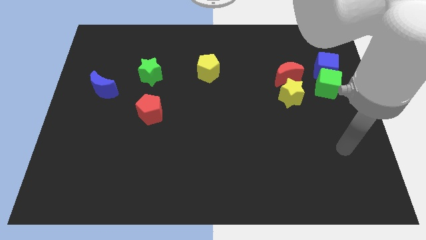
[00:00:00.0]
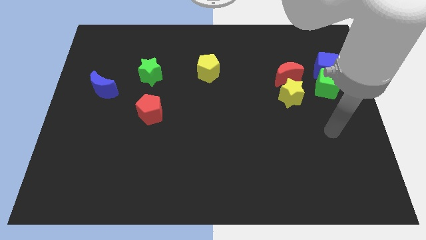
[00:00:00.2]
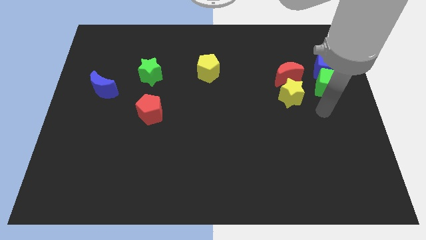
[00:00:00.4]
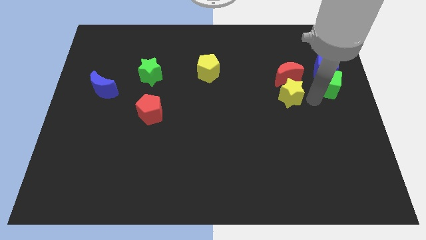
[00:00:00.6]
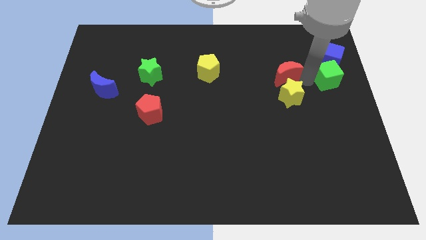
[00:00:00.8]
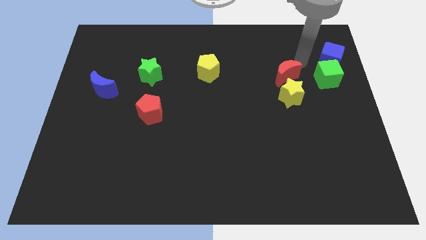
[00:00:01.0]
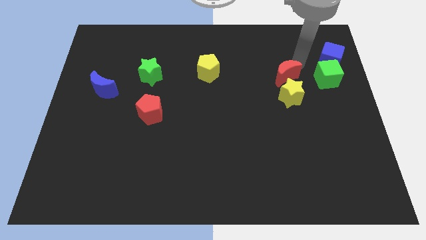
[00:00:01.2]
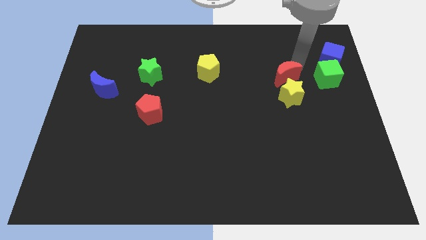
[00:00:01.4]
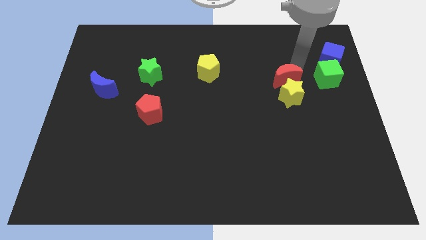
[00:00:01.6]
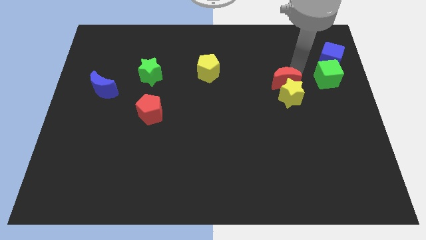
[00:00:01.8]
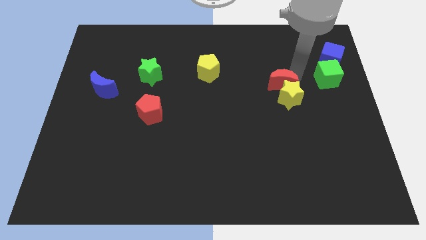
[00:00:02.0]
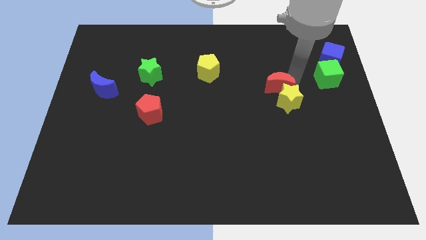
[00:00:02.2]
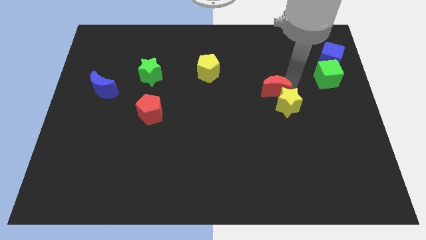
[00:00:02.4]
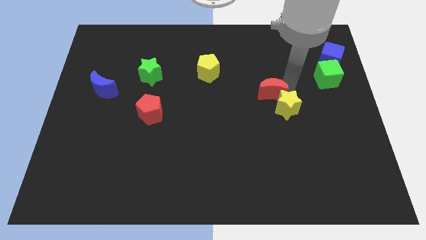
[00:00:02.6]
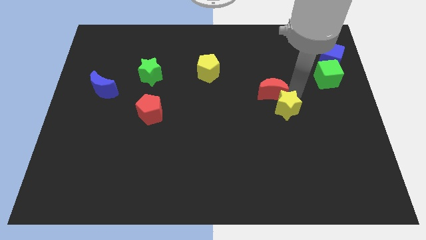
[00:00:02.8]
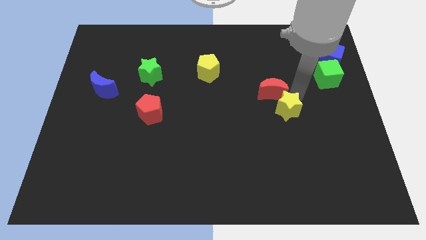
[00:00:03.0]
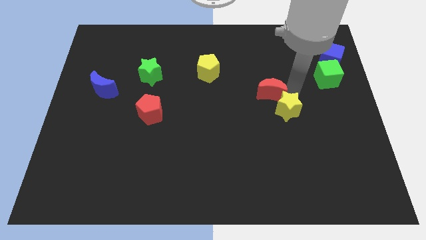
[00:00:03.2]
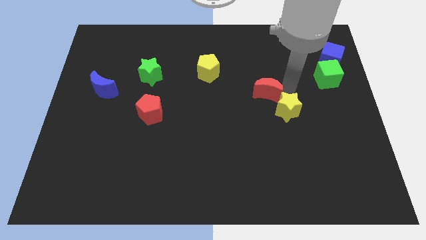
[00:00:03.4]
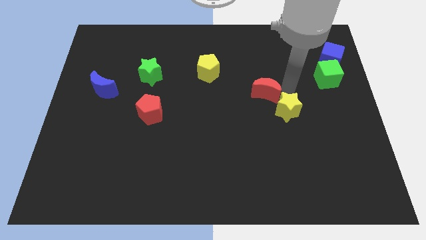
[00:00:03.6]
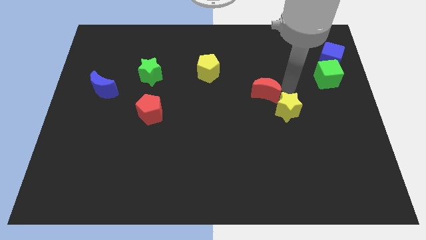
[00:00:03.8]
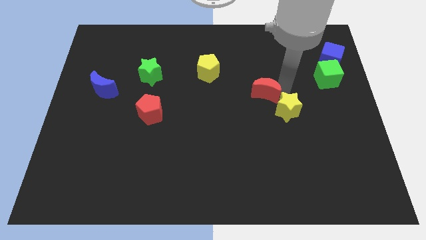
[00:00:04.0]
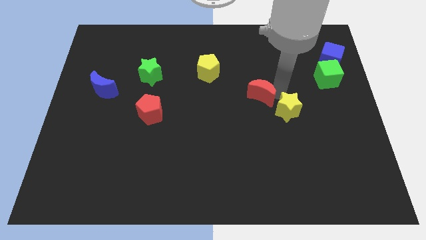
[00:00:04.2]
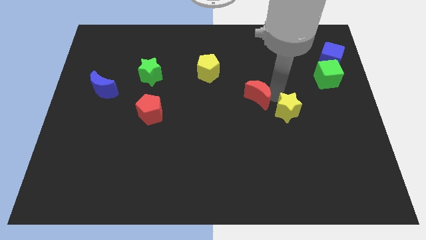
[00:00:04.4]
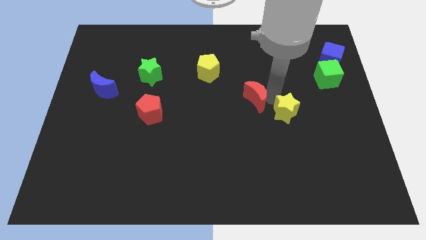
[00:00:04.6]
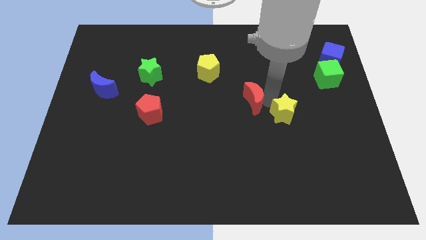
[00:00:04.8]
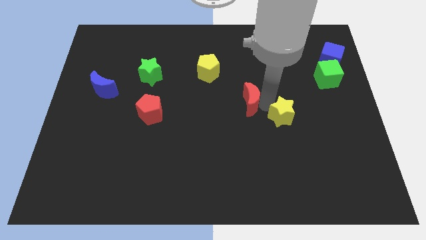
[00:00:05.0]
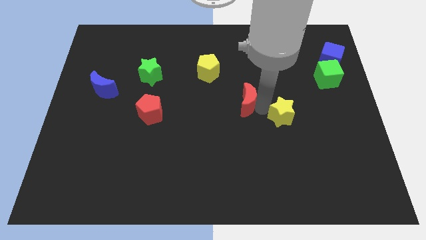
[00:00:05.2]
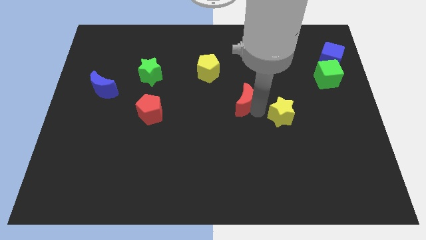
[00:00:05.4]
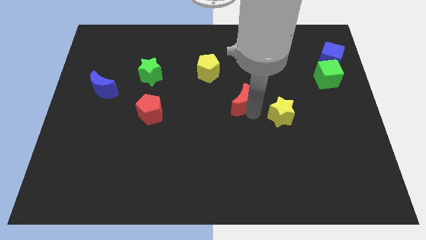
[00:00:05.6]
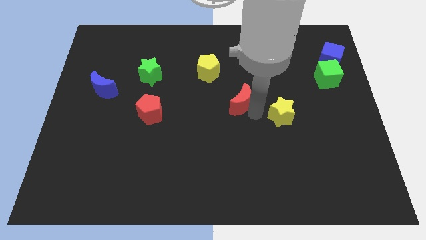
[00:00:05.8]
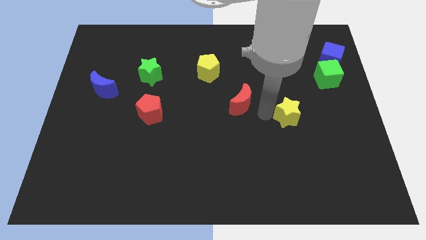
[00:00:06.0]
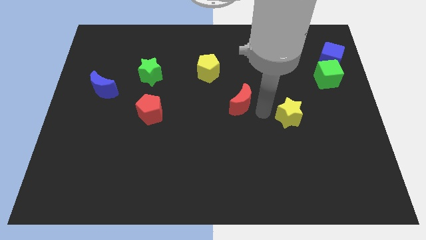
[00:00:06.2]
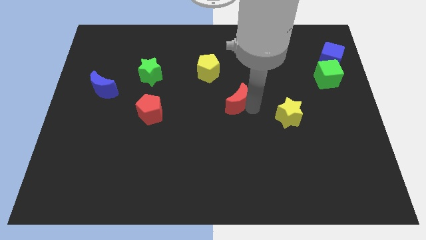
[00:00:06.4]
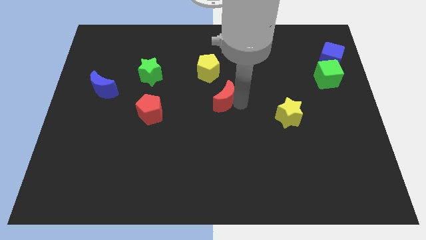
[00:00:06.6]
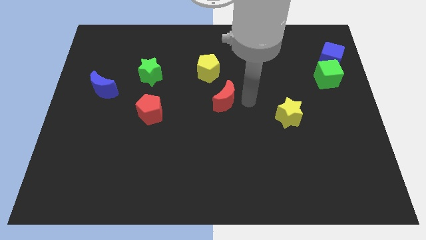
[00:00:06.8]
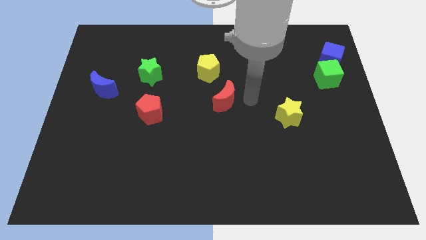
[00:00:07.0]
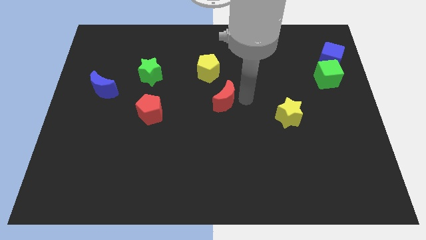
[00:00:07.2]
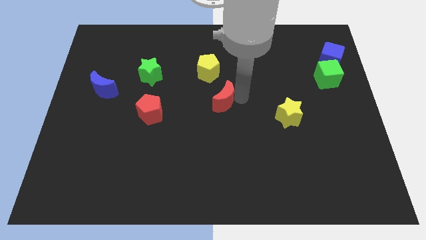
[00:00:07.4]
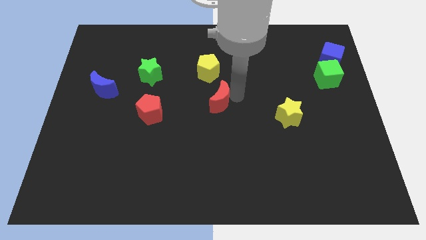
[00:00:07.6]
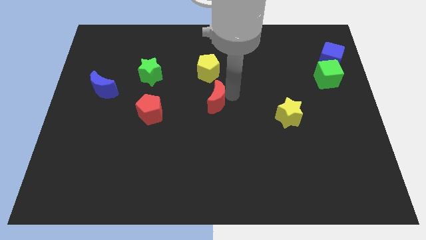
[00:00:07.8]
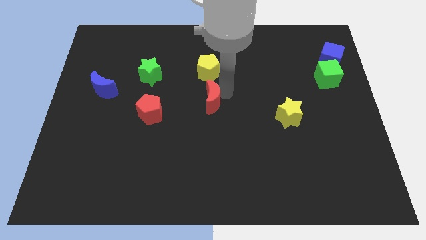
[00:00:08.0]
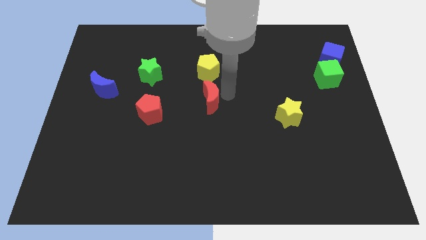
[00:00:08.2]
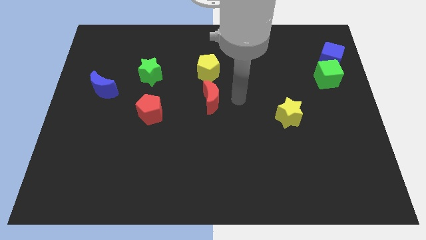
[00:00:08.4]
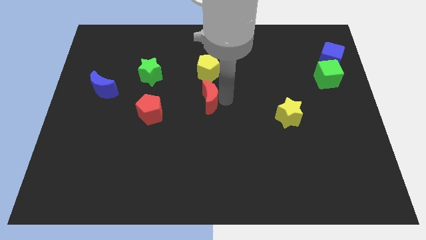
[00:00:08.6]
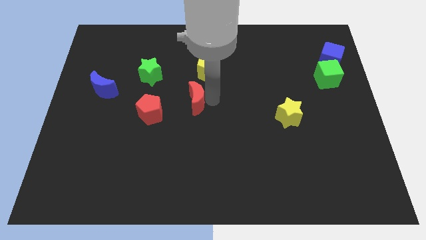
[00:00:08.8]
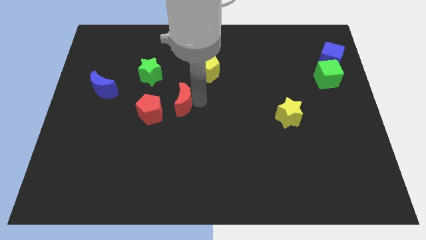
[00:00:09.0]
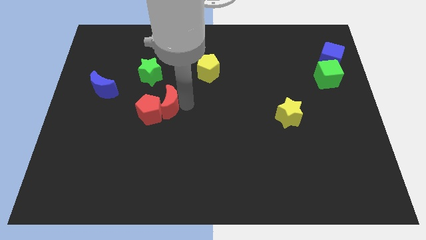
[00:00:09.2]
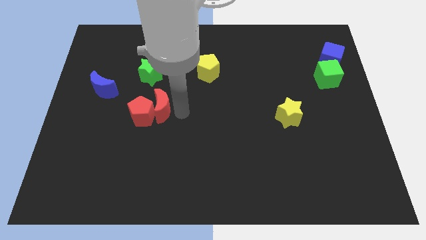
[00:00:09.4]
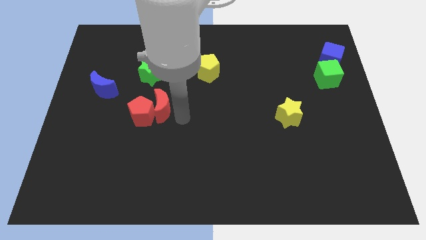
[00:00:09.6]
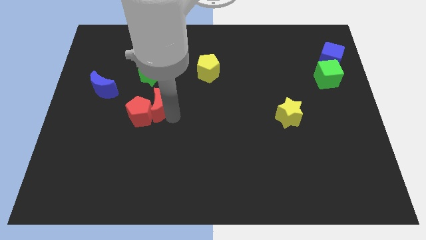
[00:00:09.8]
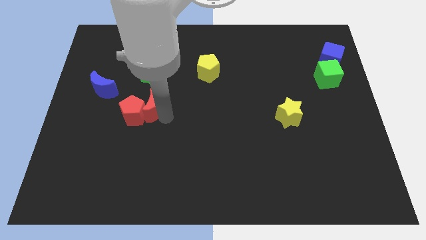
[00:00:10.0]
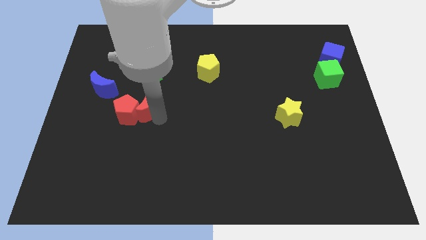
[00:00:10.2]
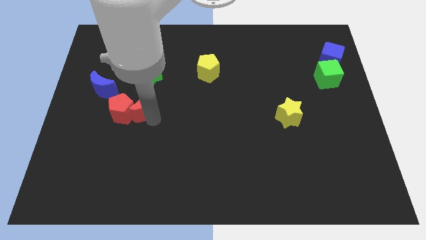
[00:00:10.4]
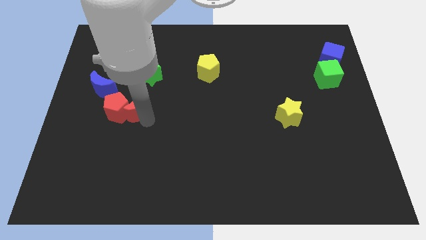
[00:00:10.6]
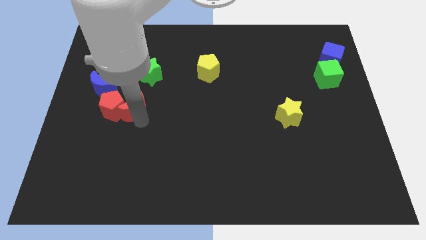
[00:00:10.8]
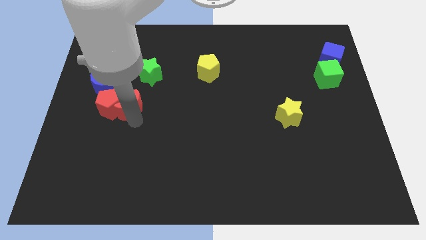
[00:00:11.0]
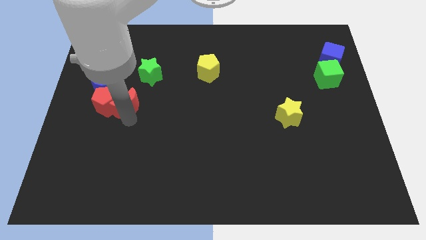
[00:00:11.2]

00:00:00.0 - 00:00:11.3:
push the red moon to the bottom left of the green star

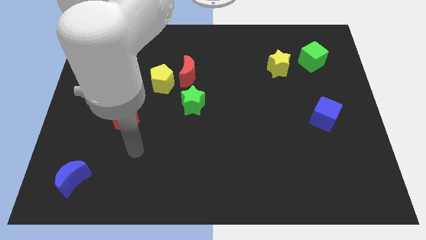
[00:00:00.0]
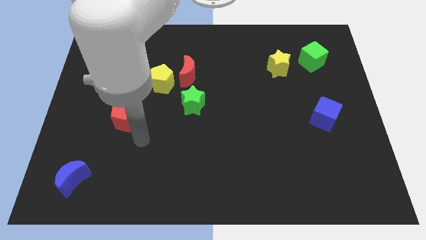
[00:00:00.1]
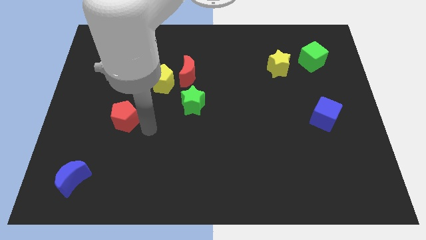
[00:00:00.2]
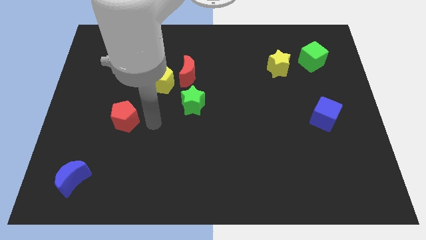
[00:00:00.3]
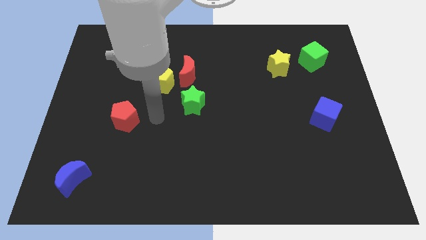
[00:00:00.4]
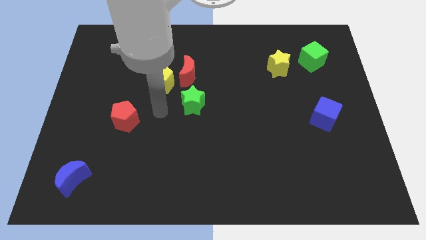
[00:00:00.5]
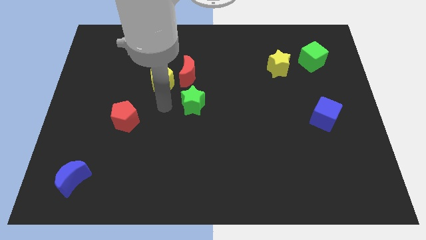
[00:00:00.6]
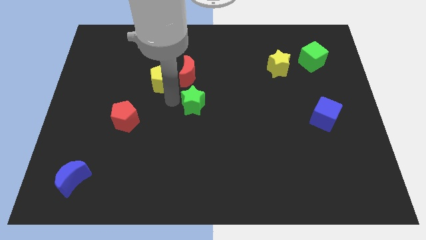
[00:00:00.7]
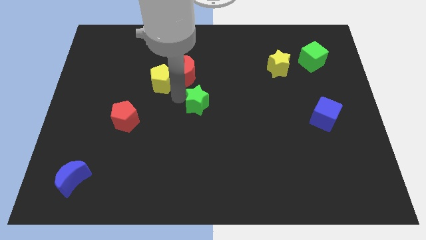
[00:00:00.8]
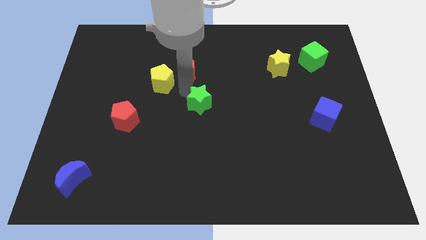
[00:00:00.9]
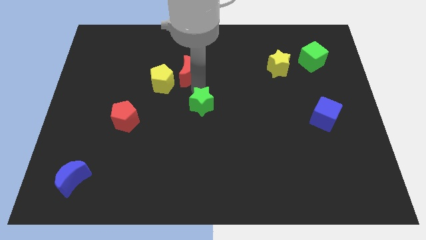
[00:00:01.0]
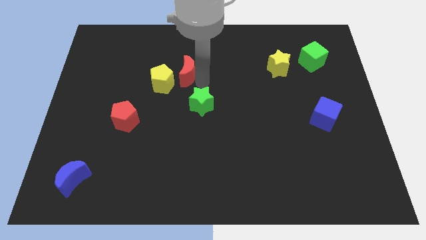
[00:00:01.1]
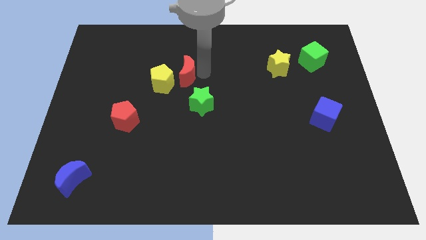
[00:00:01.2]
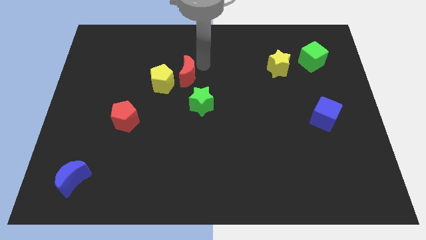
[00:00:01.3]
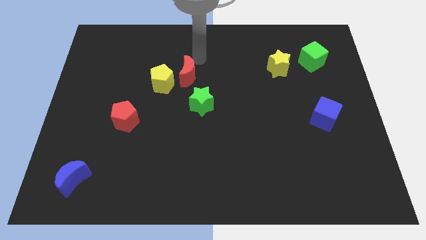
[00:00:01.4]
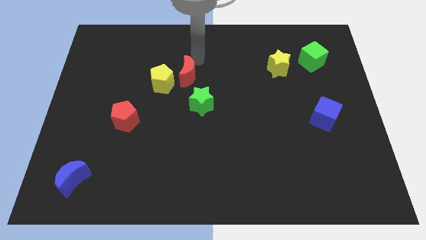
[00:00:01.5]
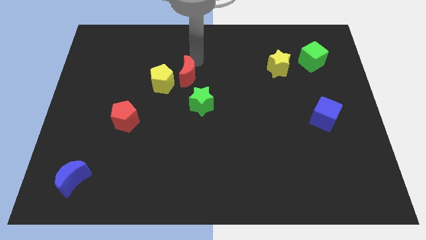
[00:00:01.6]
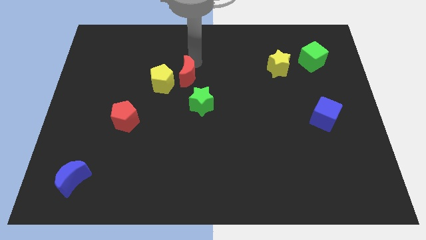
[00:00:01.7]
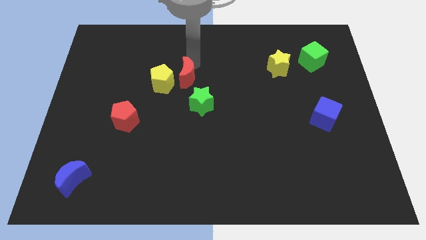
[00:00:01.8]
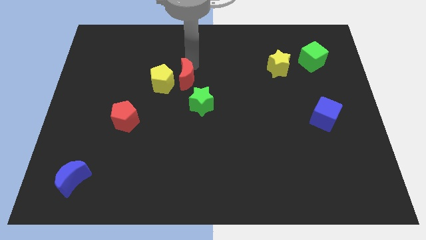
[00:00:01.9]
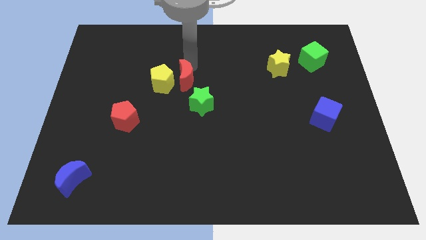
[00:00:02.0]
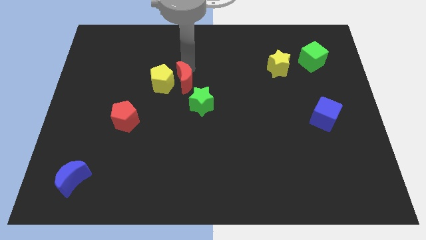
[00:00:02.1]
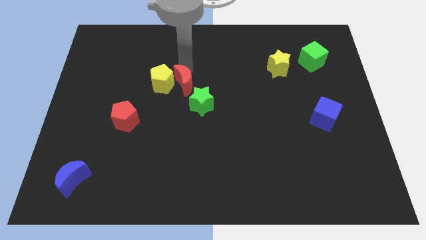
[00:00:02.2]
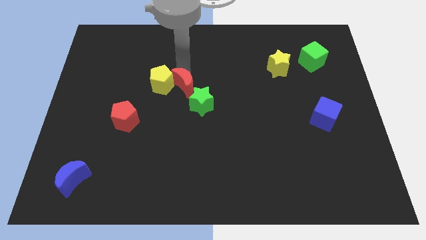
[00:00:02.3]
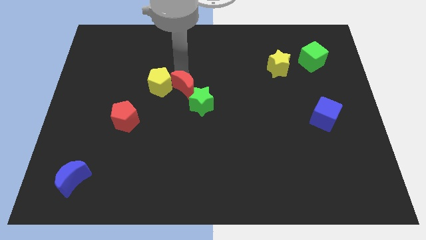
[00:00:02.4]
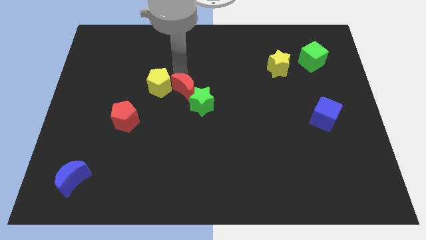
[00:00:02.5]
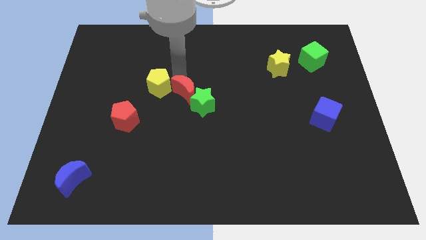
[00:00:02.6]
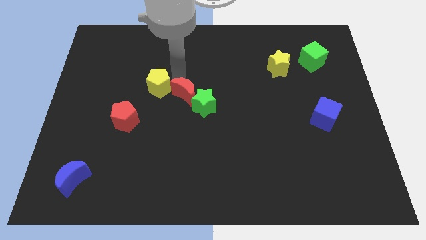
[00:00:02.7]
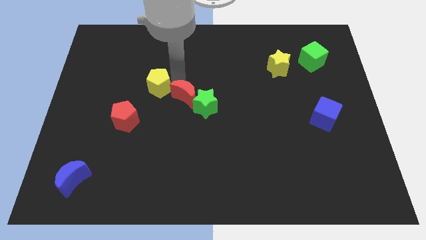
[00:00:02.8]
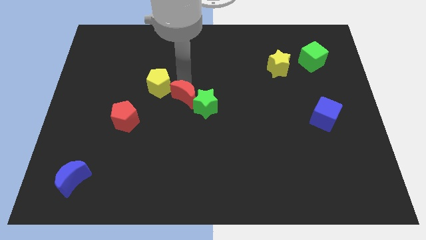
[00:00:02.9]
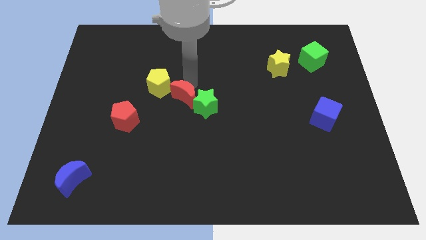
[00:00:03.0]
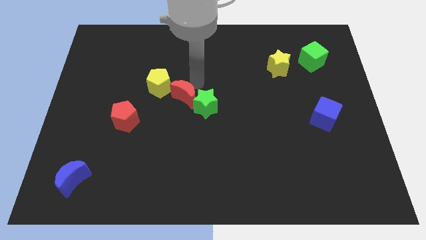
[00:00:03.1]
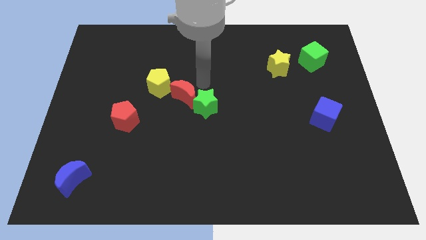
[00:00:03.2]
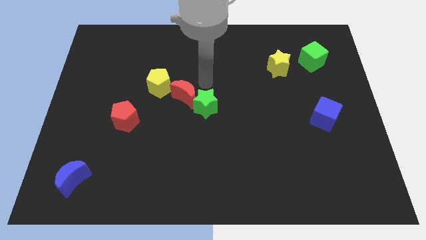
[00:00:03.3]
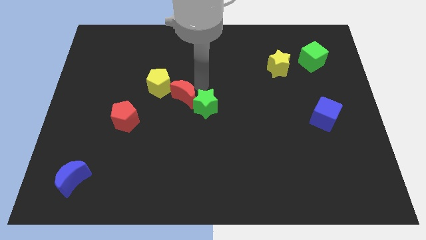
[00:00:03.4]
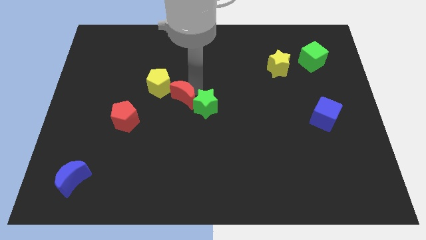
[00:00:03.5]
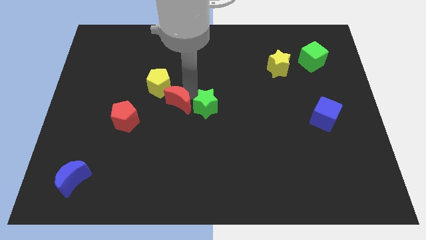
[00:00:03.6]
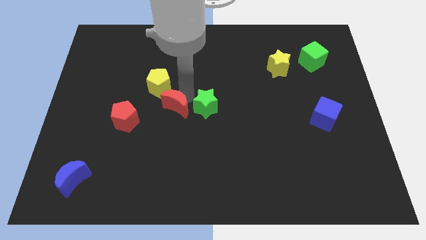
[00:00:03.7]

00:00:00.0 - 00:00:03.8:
put the red moon diagonally down and to the left of the green star
